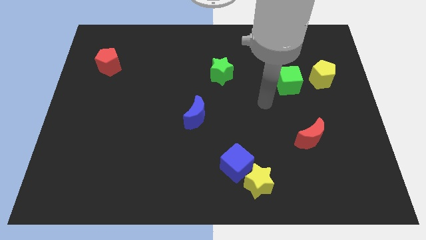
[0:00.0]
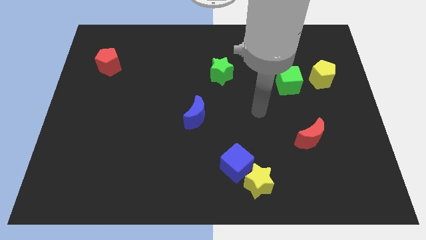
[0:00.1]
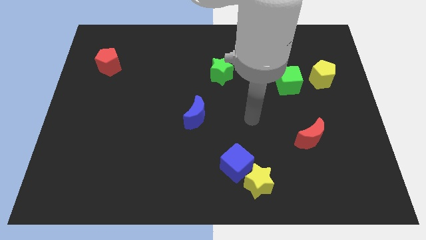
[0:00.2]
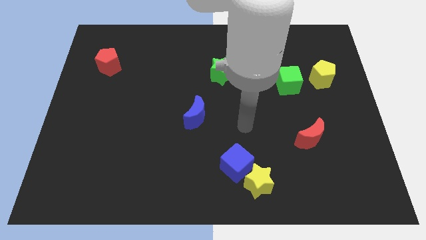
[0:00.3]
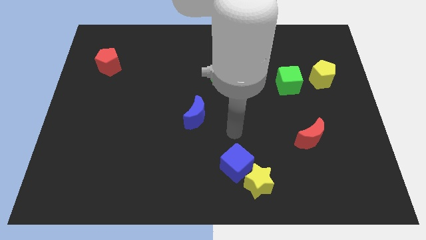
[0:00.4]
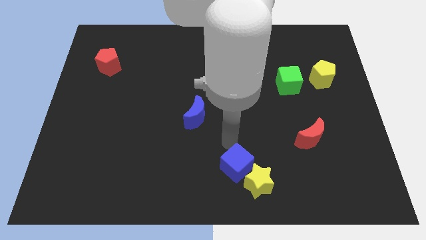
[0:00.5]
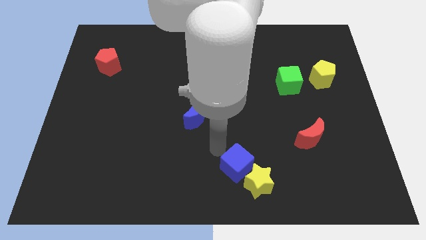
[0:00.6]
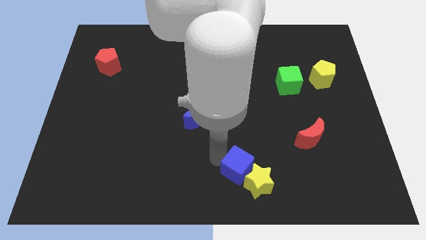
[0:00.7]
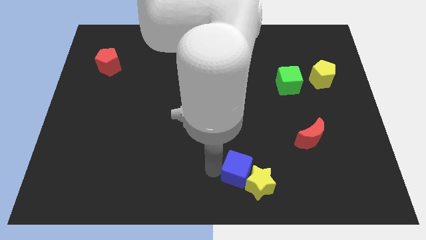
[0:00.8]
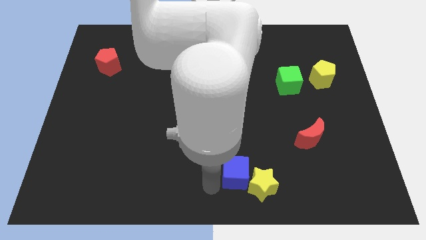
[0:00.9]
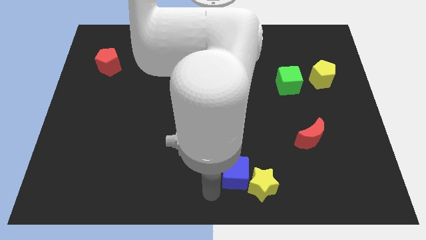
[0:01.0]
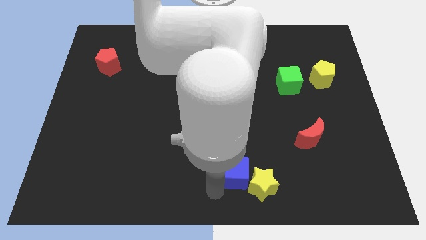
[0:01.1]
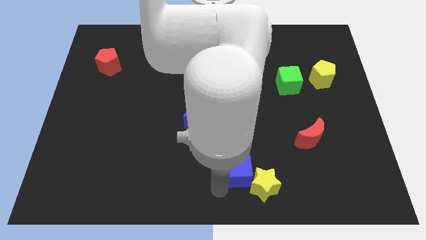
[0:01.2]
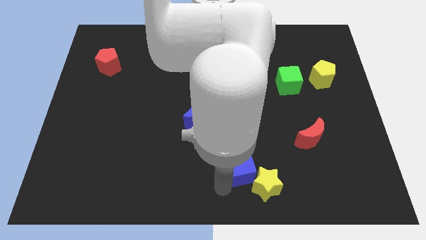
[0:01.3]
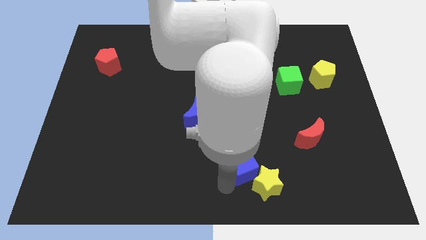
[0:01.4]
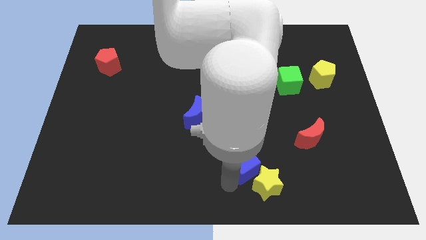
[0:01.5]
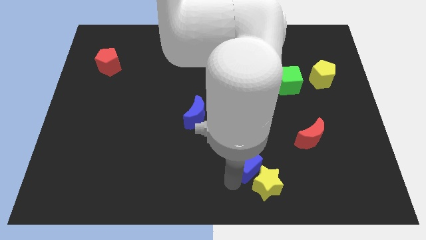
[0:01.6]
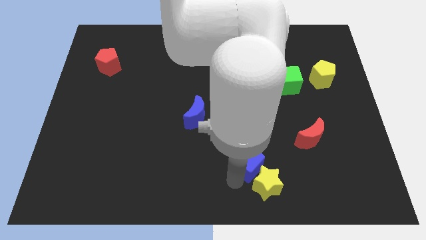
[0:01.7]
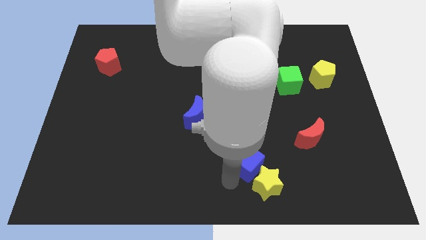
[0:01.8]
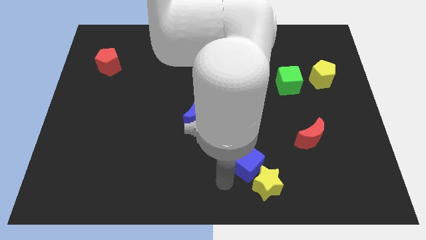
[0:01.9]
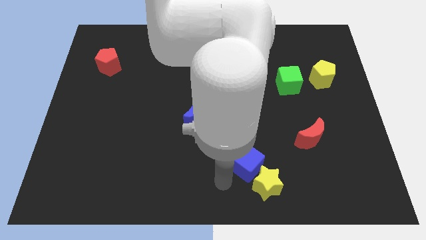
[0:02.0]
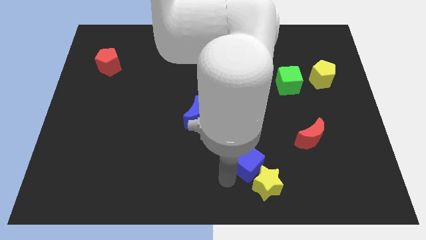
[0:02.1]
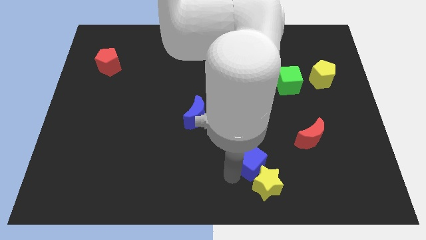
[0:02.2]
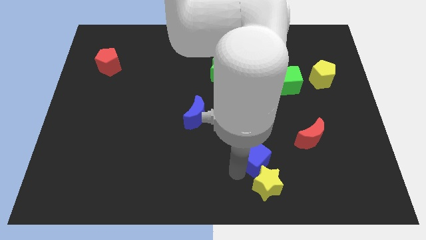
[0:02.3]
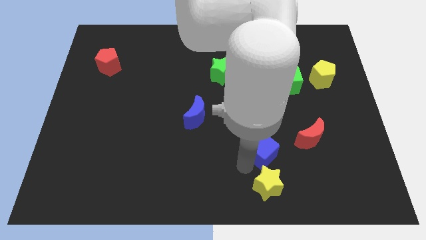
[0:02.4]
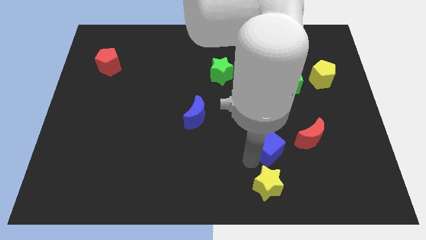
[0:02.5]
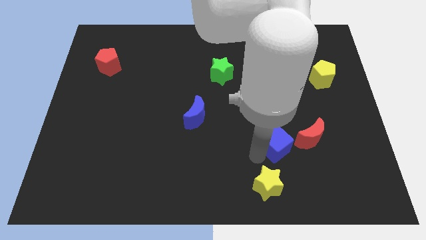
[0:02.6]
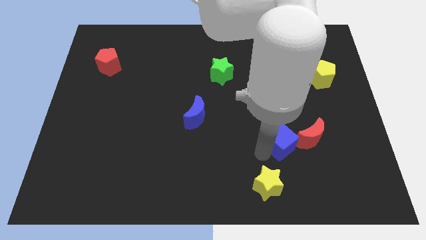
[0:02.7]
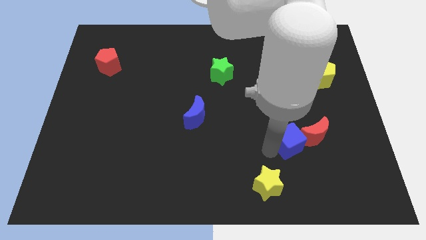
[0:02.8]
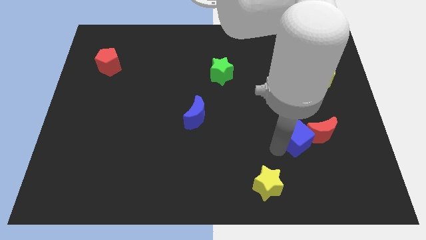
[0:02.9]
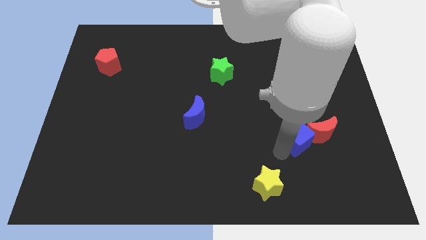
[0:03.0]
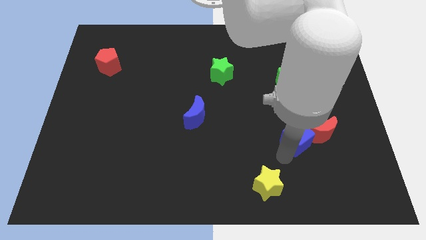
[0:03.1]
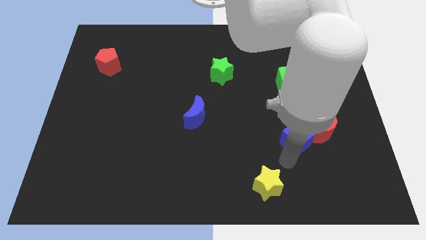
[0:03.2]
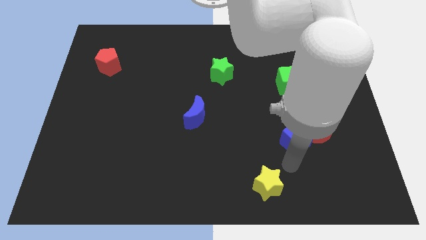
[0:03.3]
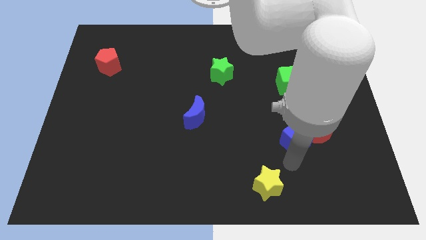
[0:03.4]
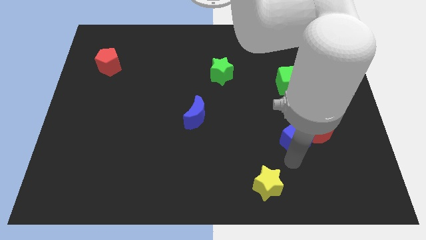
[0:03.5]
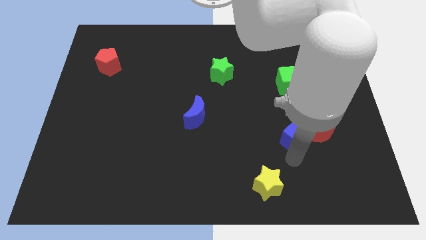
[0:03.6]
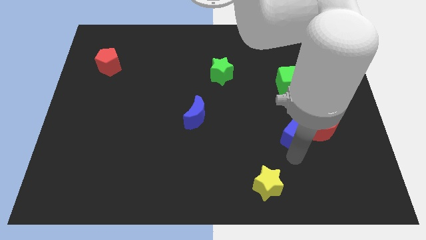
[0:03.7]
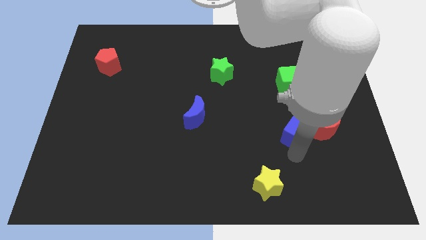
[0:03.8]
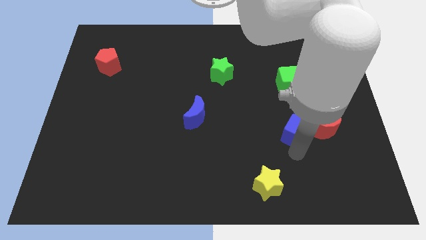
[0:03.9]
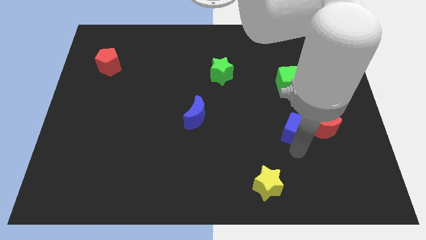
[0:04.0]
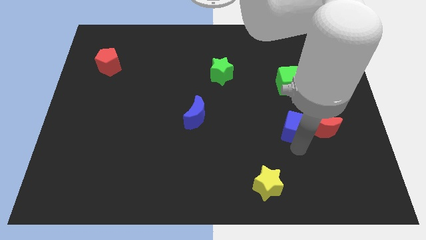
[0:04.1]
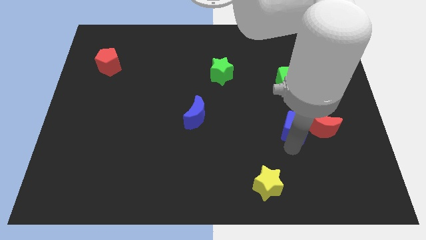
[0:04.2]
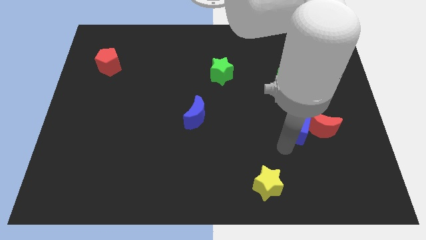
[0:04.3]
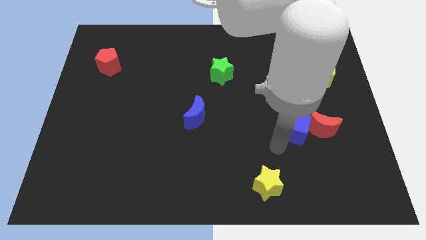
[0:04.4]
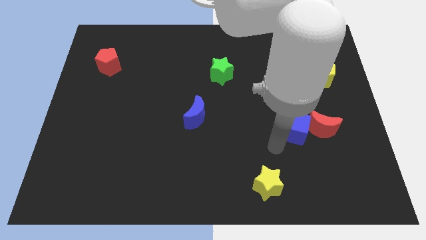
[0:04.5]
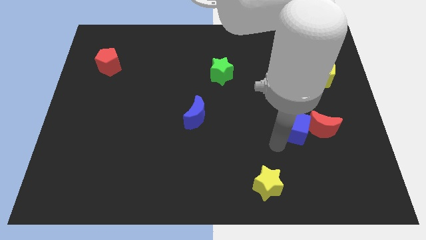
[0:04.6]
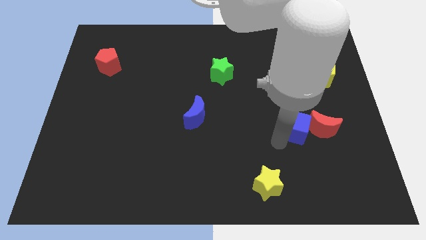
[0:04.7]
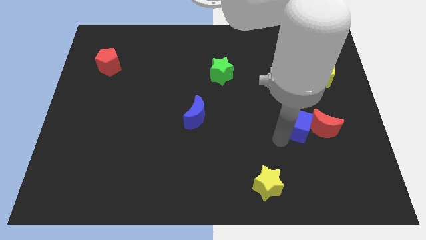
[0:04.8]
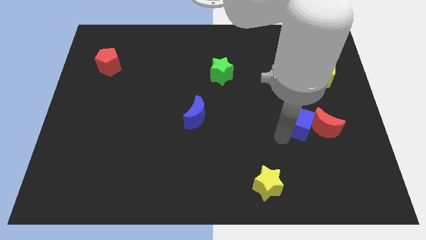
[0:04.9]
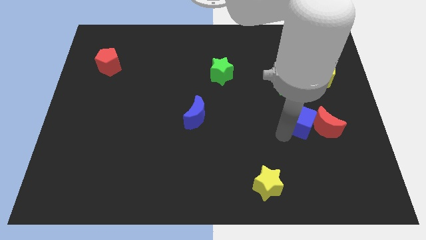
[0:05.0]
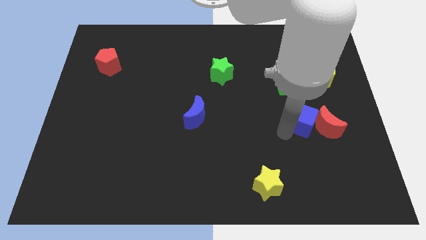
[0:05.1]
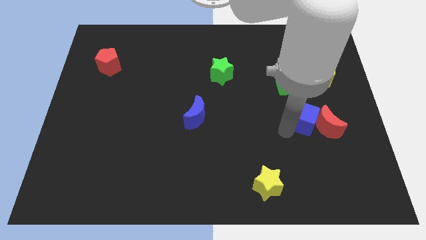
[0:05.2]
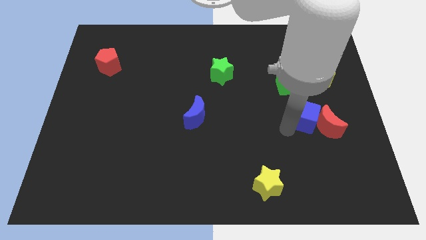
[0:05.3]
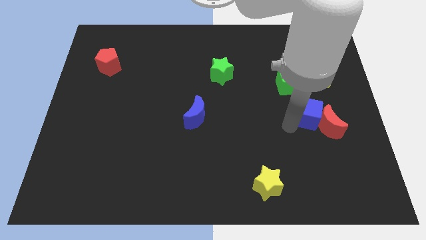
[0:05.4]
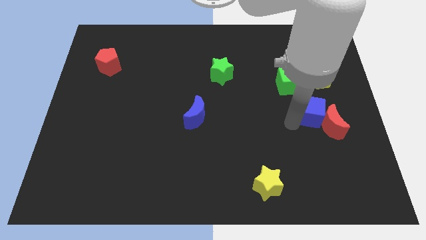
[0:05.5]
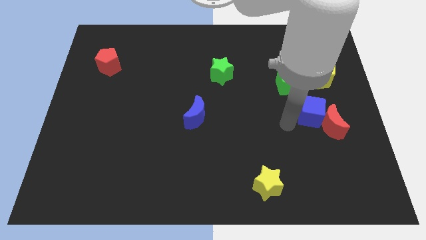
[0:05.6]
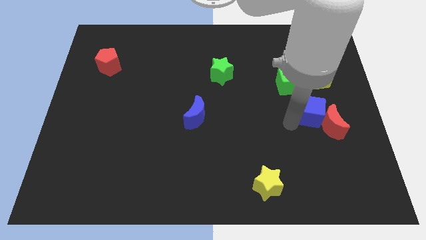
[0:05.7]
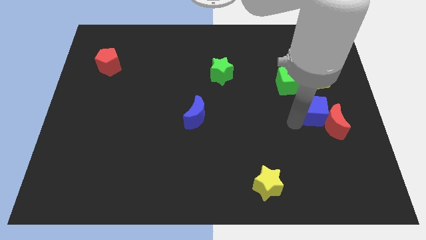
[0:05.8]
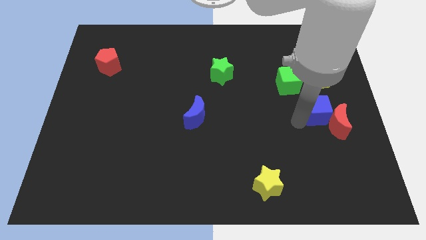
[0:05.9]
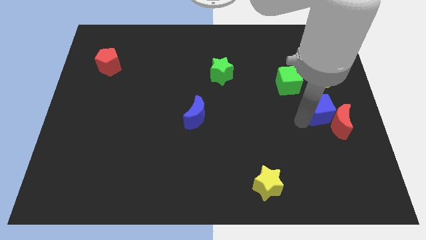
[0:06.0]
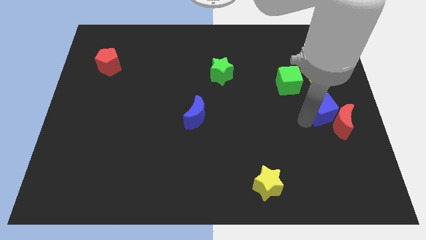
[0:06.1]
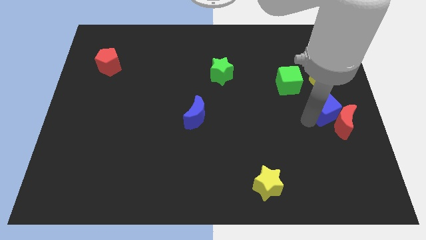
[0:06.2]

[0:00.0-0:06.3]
push the blue cube to the right side of the board

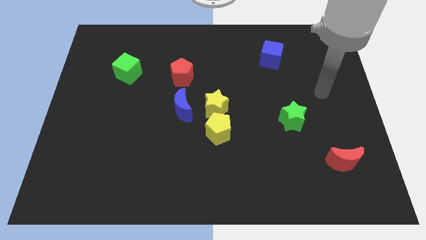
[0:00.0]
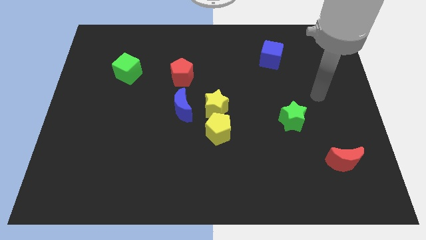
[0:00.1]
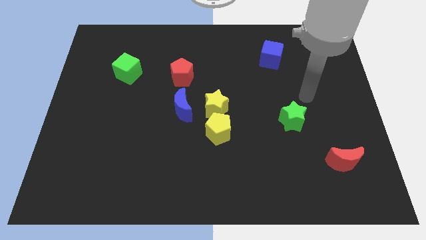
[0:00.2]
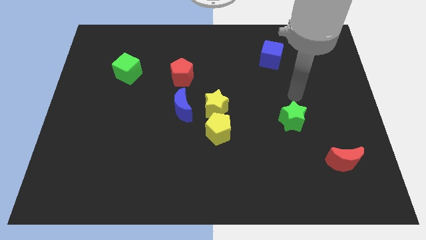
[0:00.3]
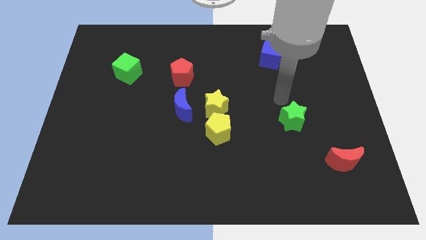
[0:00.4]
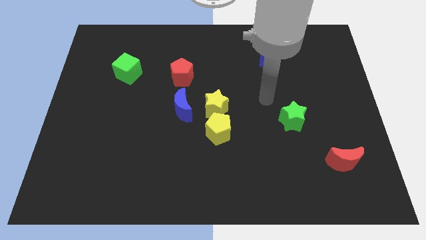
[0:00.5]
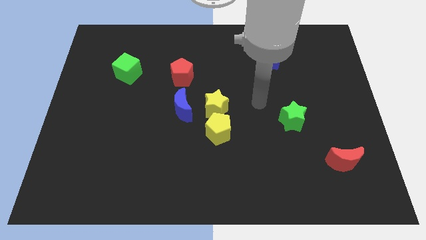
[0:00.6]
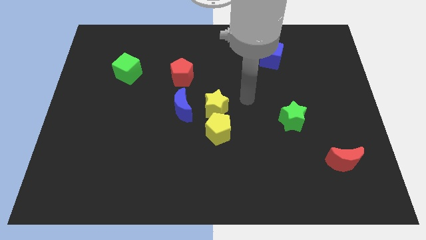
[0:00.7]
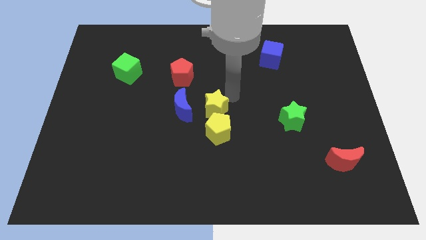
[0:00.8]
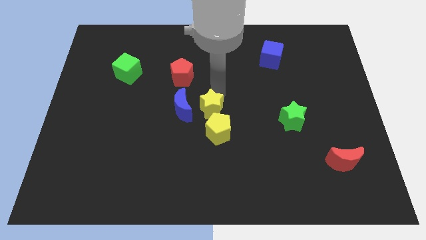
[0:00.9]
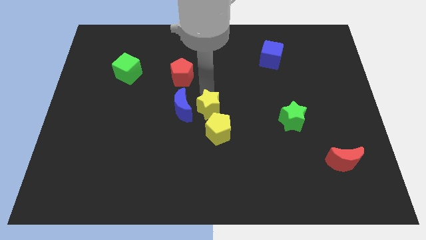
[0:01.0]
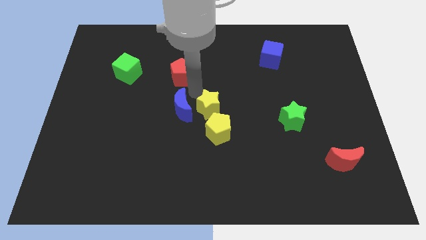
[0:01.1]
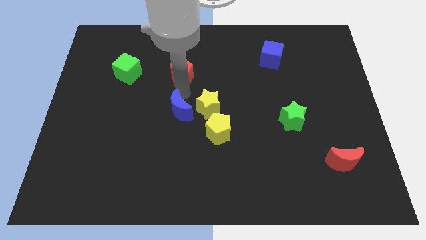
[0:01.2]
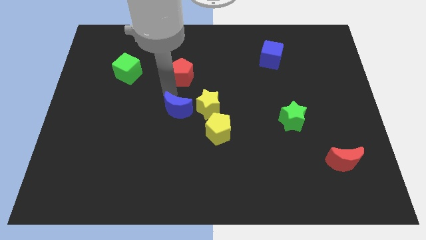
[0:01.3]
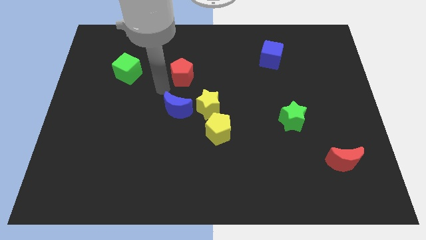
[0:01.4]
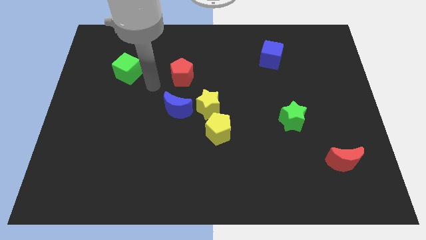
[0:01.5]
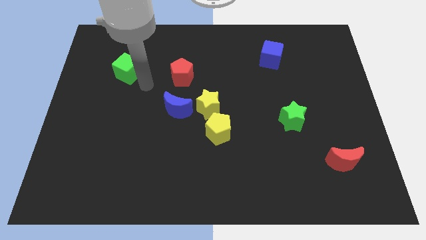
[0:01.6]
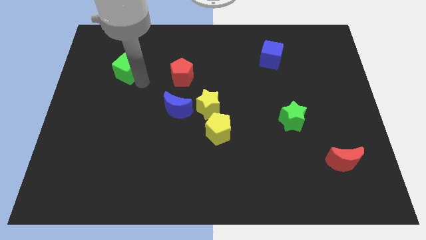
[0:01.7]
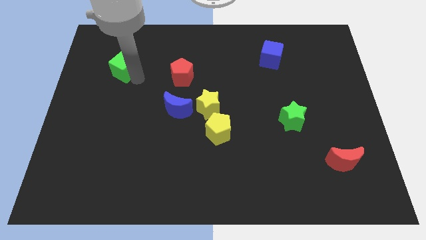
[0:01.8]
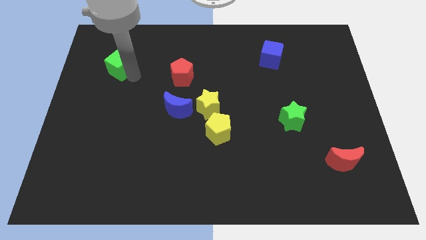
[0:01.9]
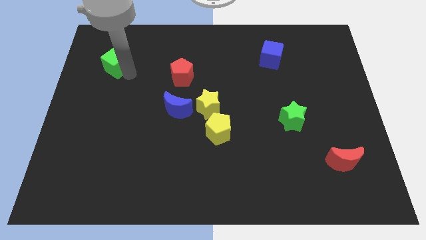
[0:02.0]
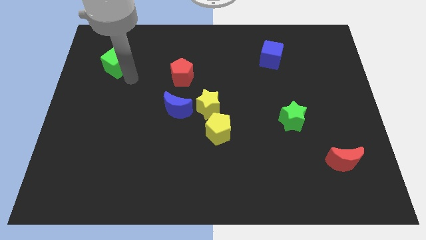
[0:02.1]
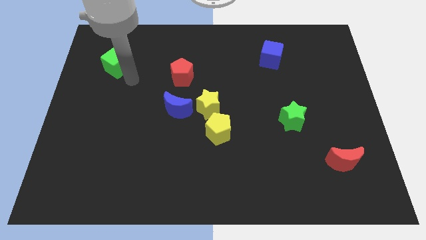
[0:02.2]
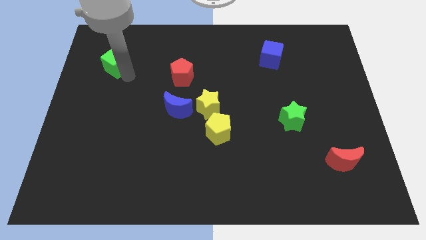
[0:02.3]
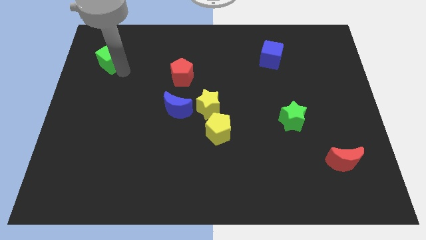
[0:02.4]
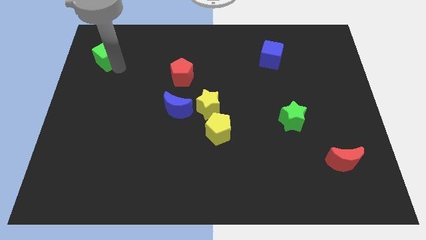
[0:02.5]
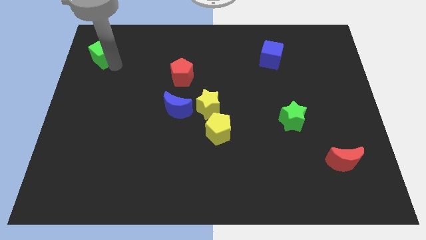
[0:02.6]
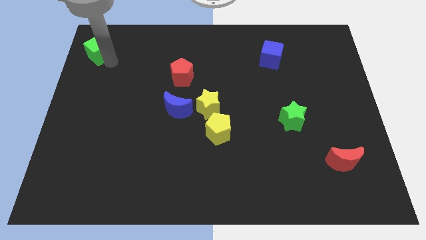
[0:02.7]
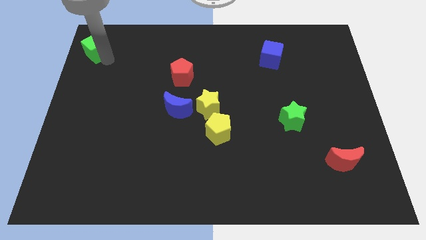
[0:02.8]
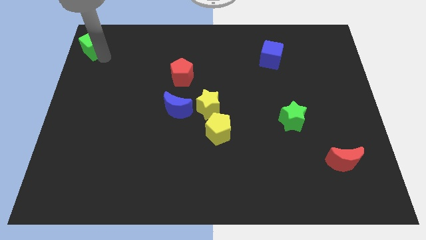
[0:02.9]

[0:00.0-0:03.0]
slide the green cube to the upper left corner
